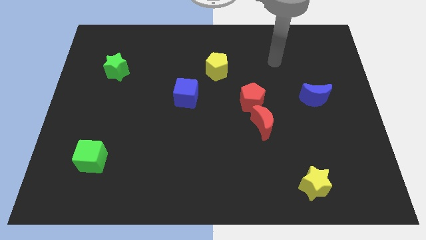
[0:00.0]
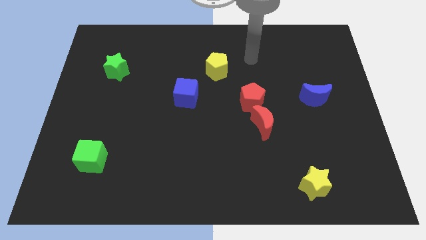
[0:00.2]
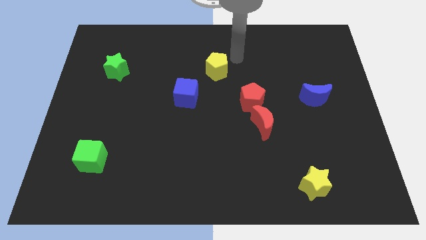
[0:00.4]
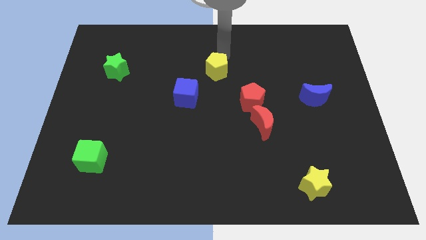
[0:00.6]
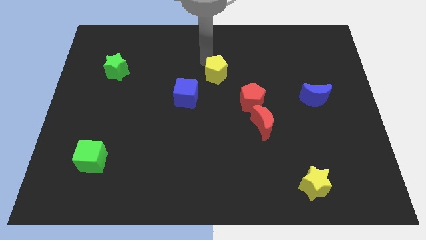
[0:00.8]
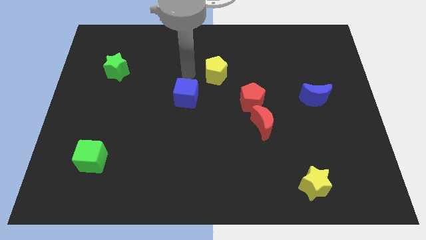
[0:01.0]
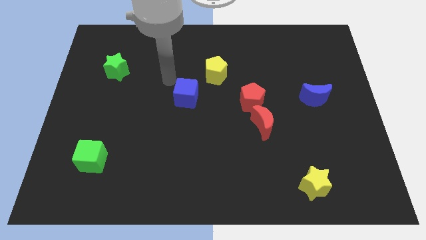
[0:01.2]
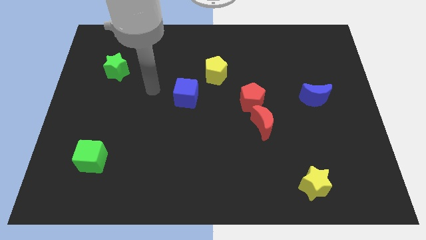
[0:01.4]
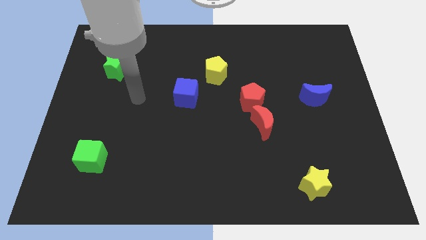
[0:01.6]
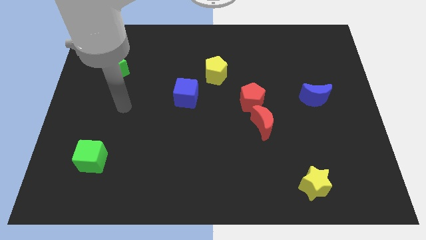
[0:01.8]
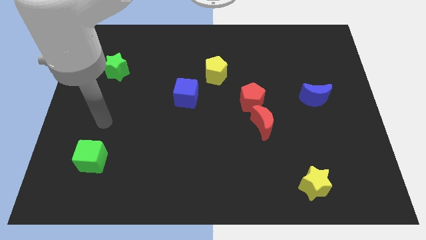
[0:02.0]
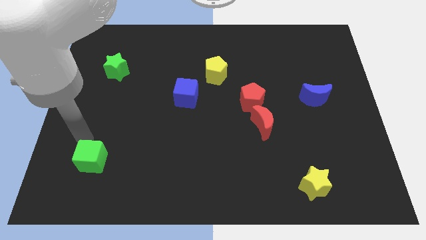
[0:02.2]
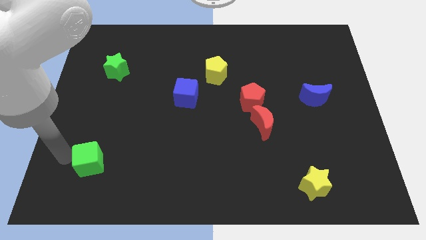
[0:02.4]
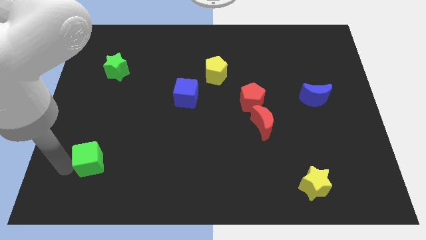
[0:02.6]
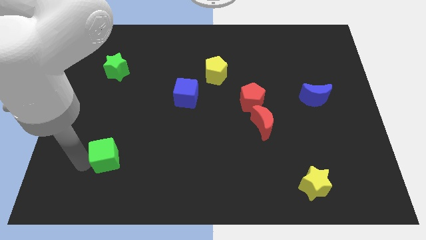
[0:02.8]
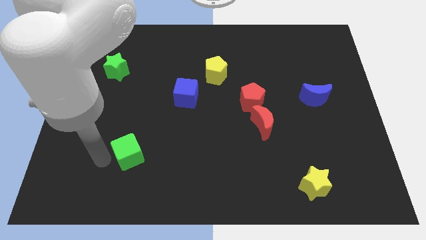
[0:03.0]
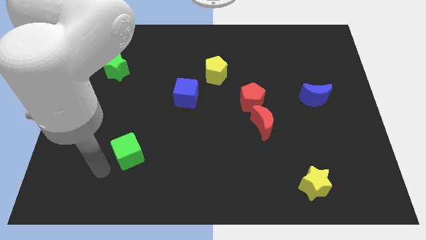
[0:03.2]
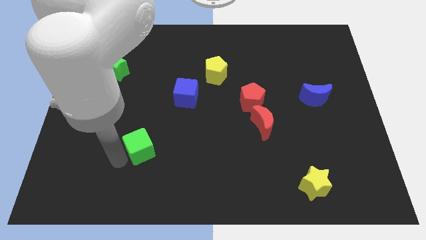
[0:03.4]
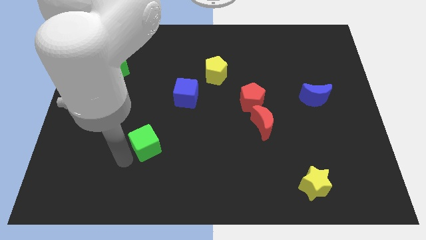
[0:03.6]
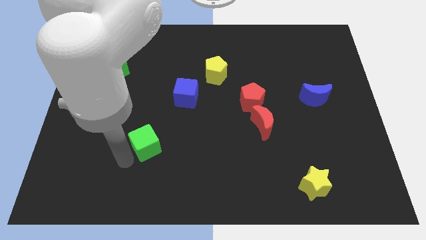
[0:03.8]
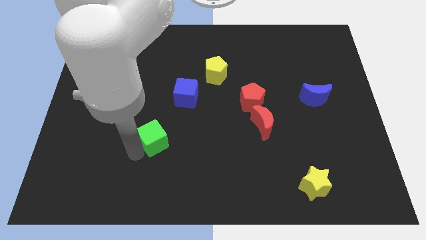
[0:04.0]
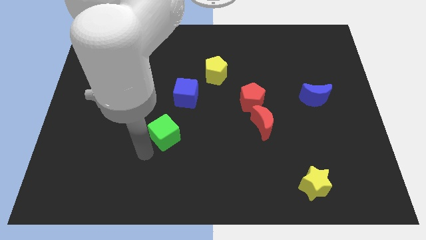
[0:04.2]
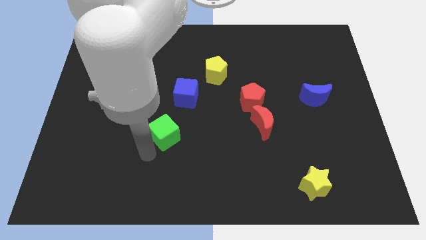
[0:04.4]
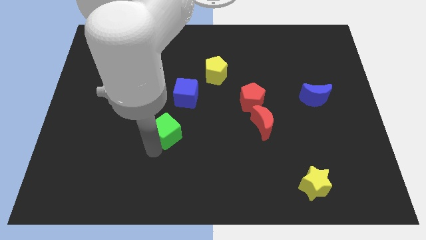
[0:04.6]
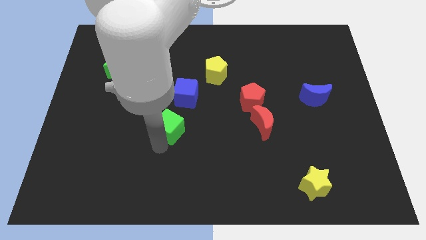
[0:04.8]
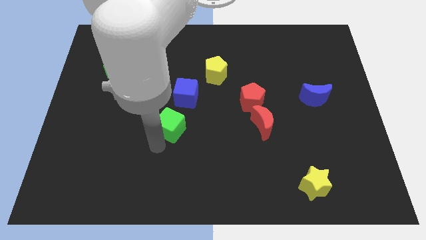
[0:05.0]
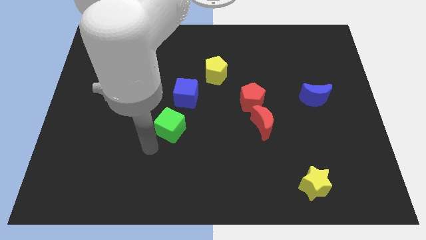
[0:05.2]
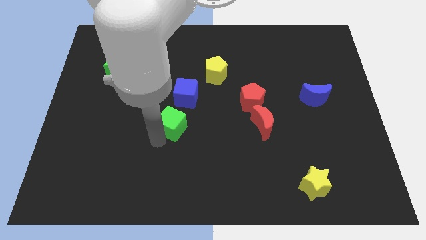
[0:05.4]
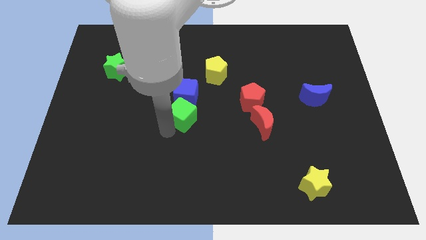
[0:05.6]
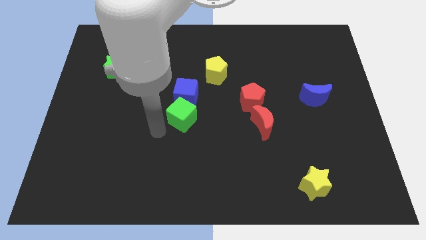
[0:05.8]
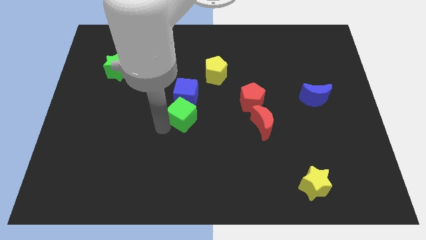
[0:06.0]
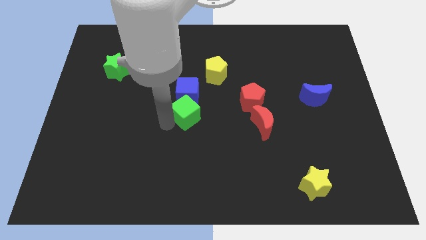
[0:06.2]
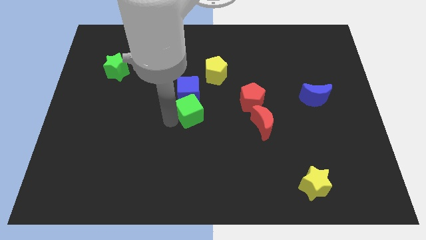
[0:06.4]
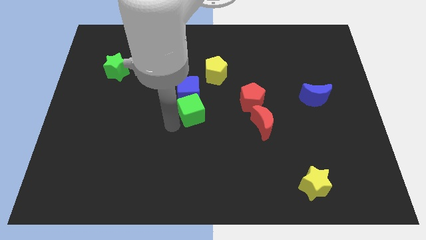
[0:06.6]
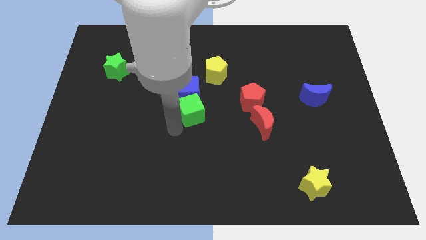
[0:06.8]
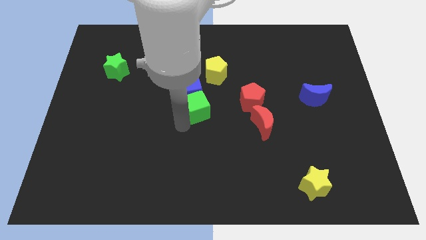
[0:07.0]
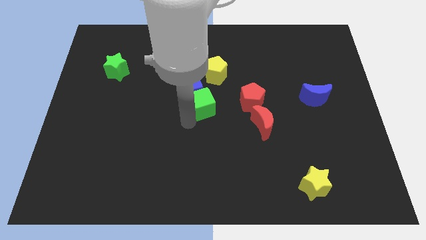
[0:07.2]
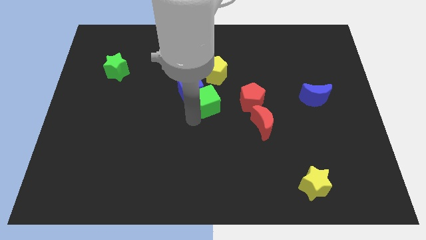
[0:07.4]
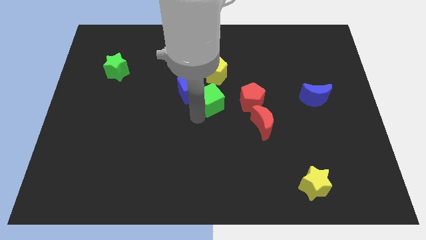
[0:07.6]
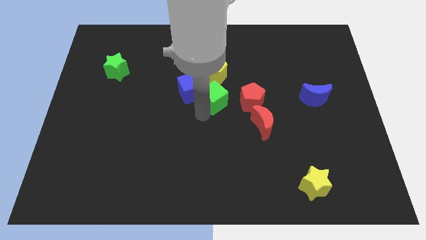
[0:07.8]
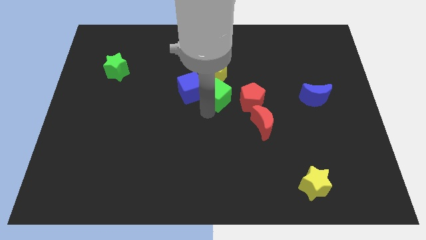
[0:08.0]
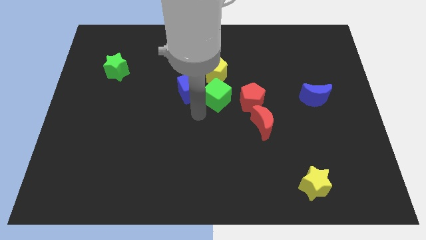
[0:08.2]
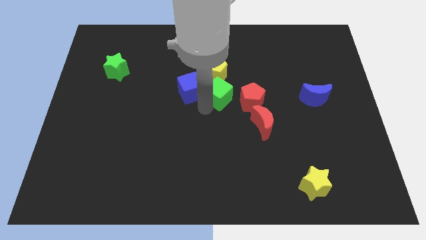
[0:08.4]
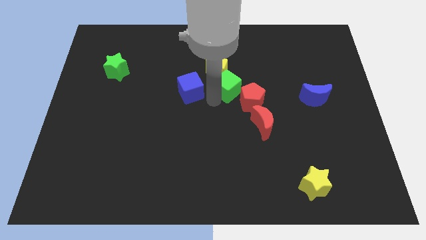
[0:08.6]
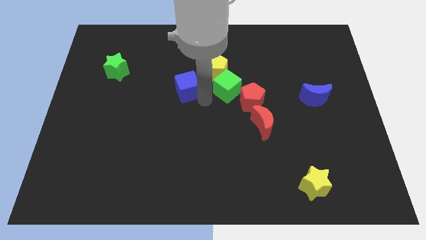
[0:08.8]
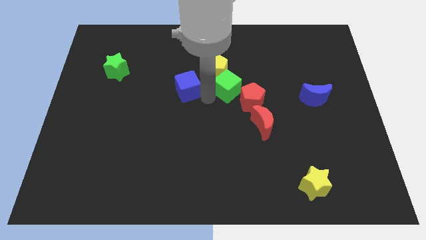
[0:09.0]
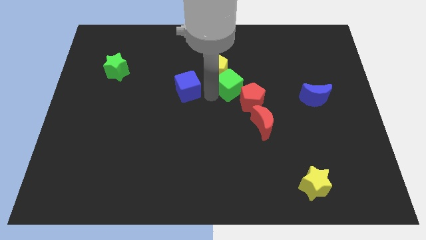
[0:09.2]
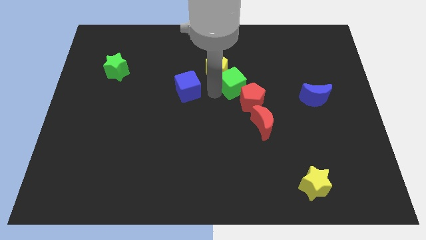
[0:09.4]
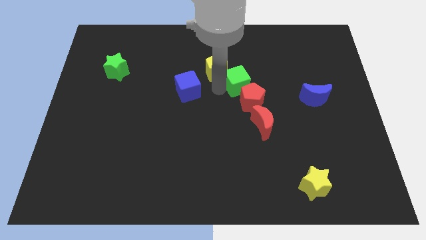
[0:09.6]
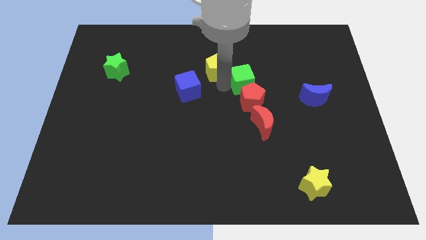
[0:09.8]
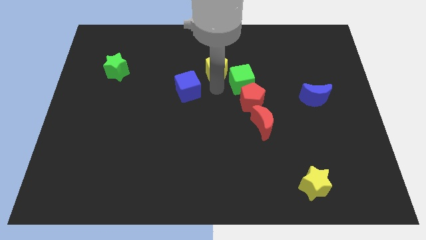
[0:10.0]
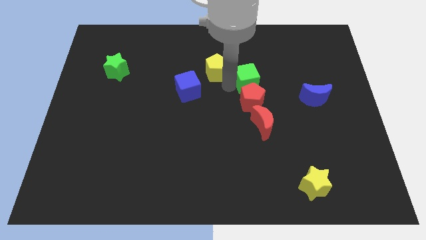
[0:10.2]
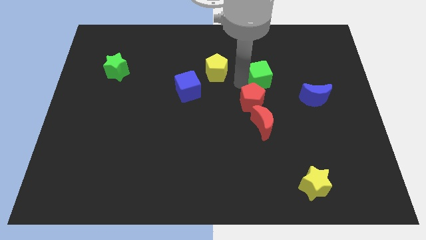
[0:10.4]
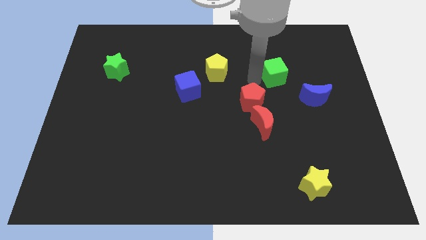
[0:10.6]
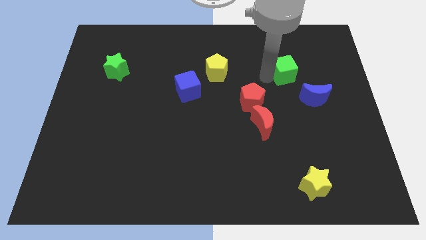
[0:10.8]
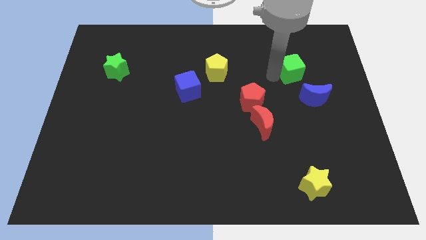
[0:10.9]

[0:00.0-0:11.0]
move the green cube to the top of the blue moon

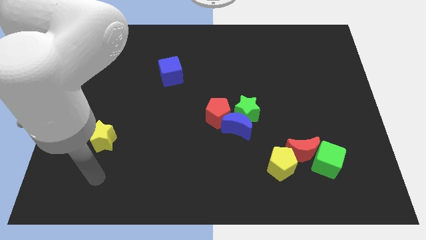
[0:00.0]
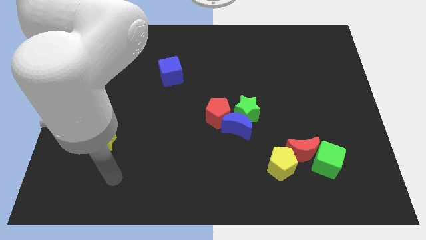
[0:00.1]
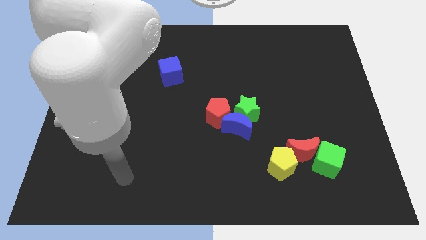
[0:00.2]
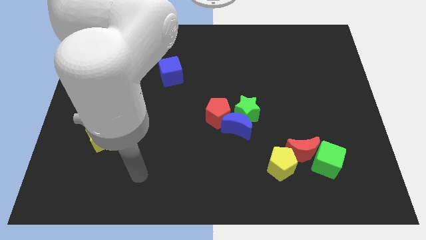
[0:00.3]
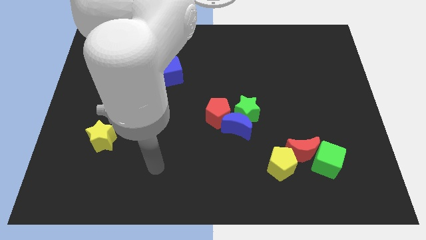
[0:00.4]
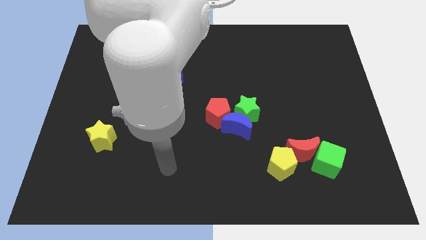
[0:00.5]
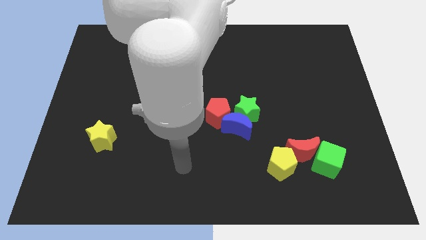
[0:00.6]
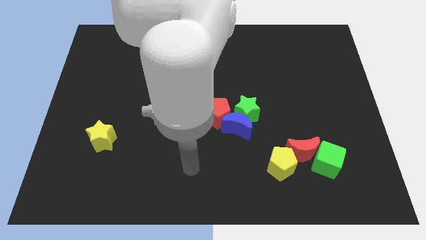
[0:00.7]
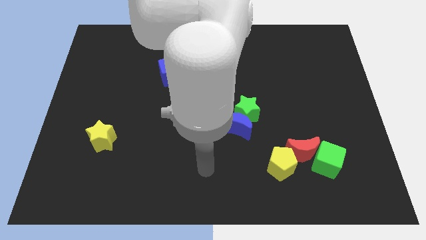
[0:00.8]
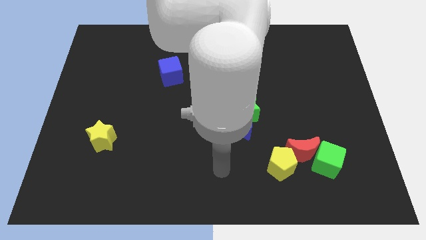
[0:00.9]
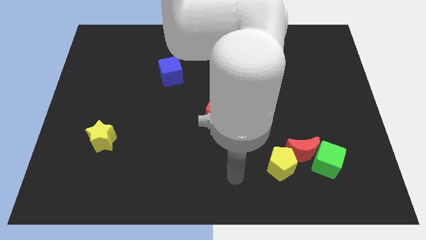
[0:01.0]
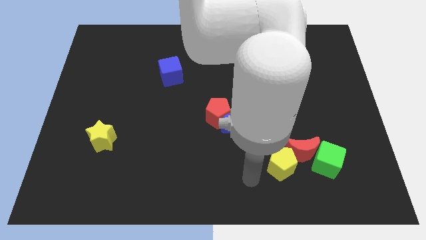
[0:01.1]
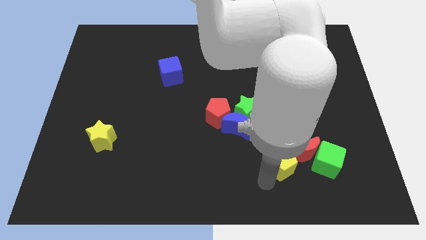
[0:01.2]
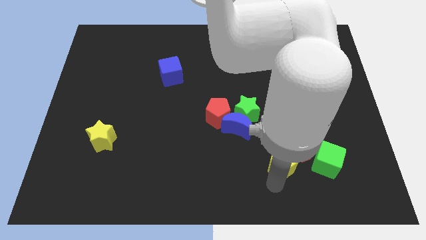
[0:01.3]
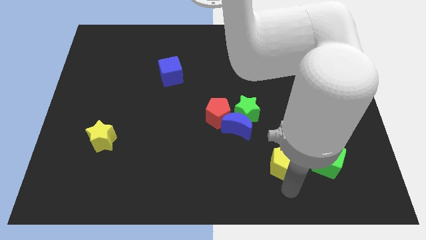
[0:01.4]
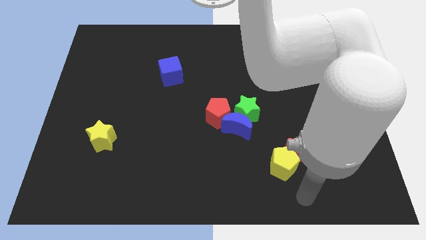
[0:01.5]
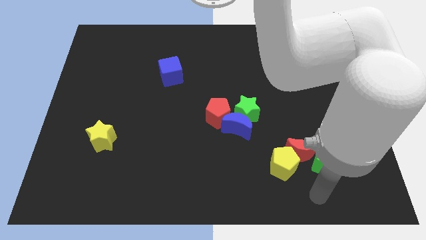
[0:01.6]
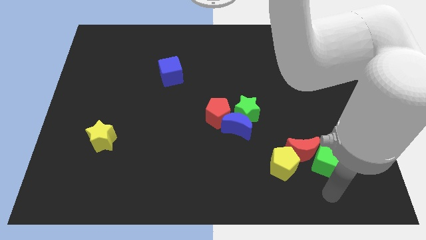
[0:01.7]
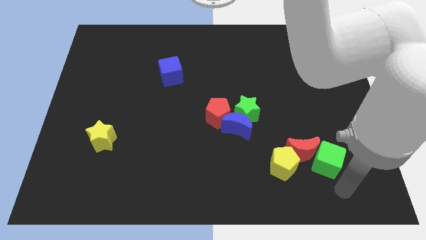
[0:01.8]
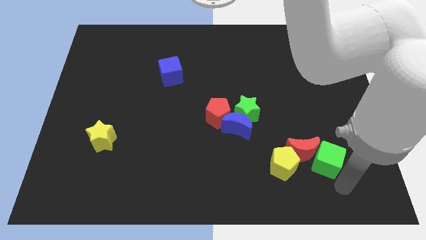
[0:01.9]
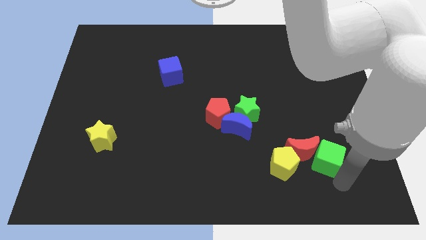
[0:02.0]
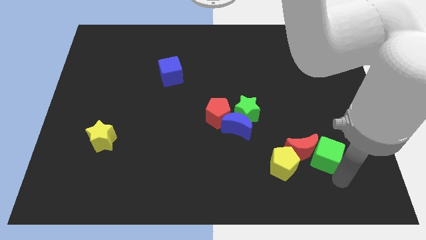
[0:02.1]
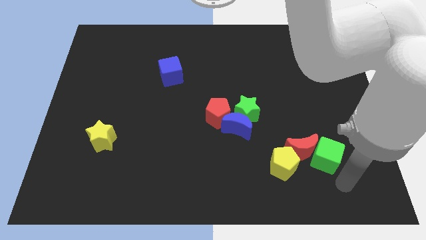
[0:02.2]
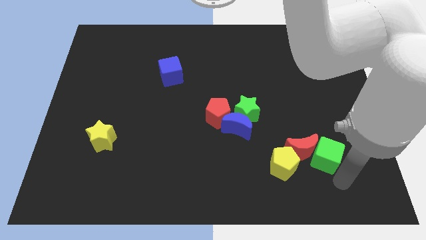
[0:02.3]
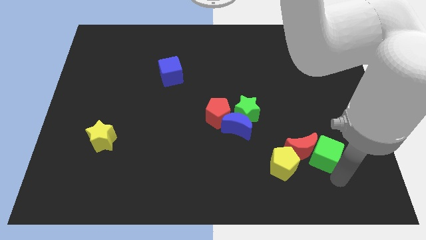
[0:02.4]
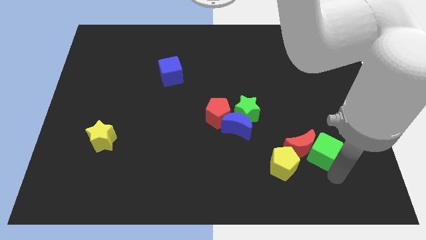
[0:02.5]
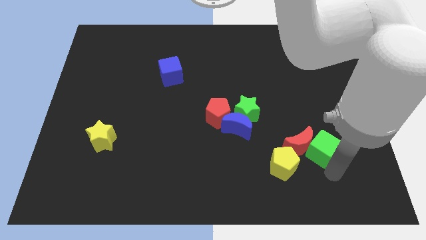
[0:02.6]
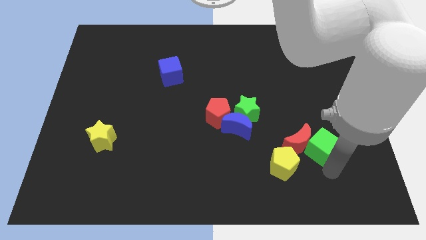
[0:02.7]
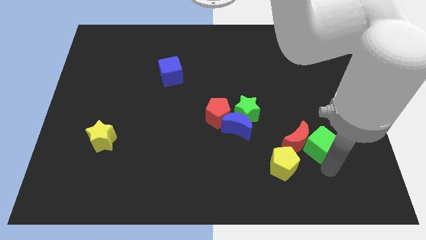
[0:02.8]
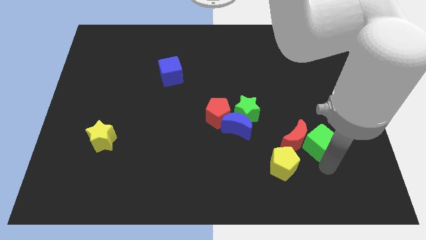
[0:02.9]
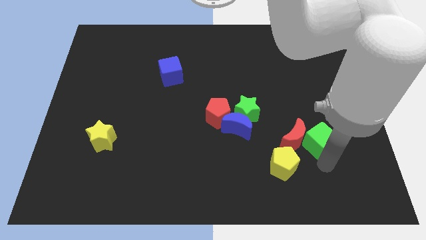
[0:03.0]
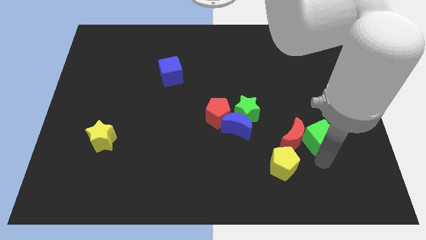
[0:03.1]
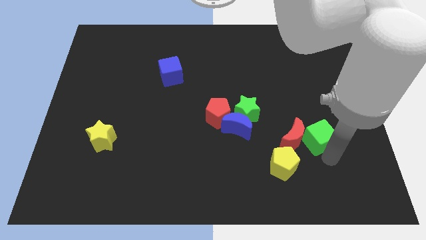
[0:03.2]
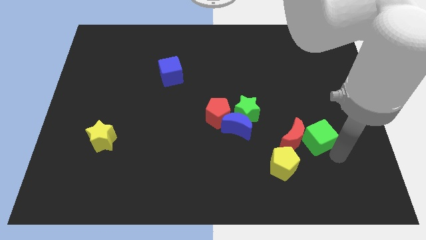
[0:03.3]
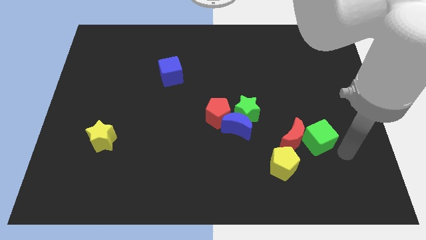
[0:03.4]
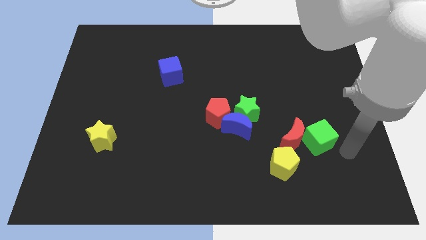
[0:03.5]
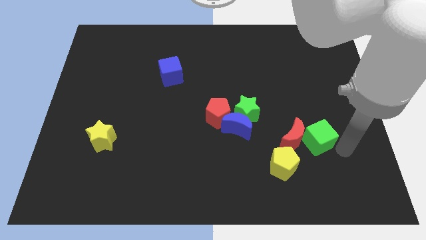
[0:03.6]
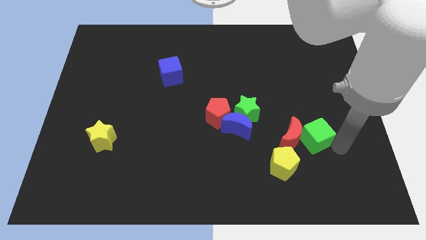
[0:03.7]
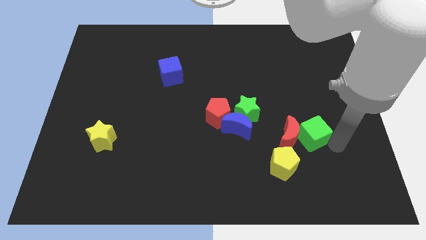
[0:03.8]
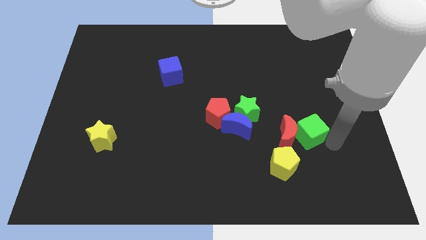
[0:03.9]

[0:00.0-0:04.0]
push the green cube to the right of the blue moon
